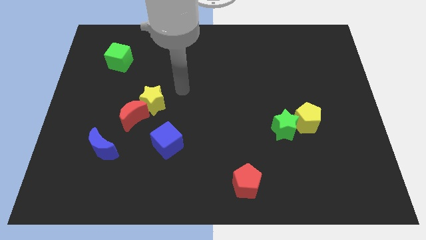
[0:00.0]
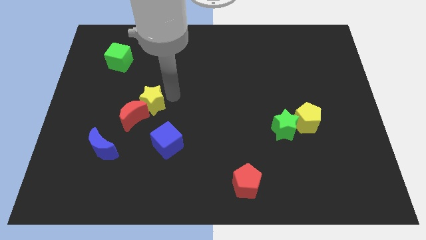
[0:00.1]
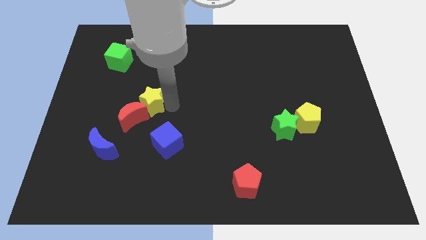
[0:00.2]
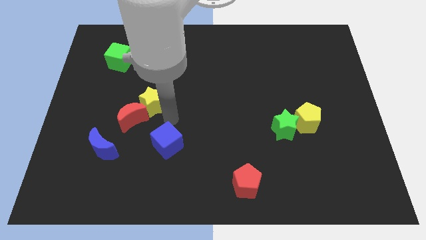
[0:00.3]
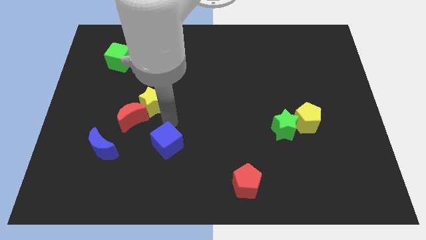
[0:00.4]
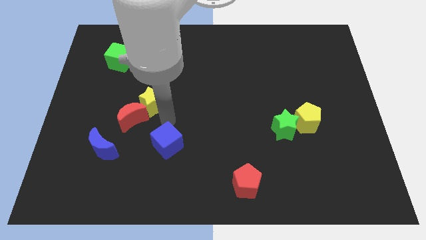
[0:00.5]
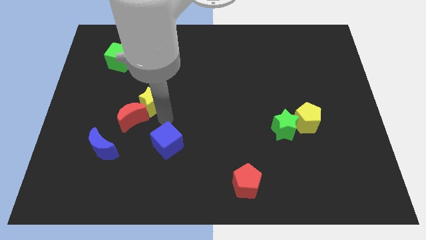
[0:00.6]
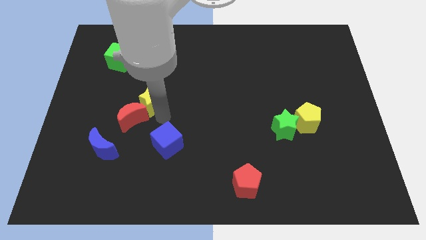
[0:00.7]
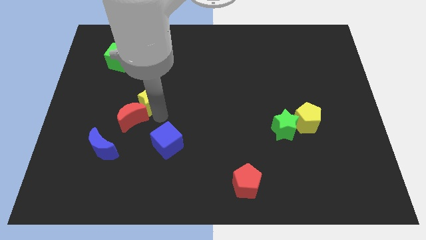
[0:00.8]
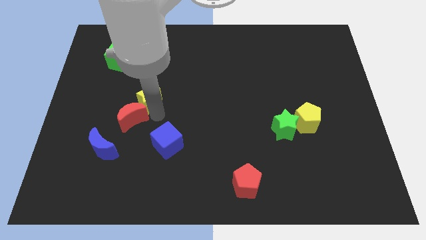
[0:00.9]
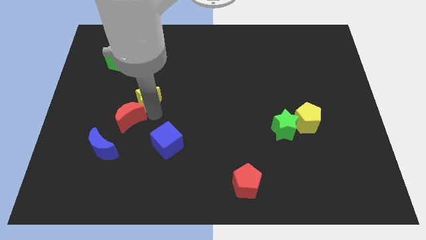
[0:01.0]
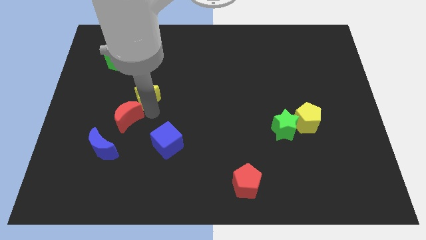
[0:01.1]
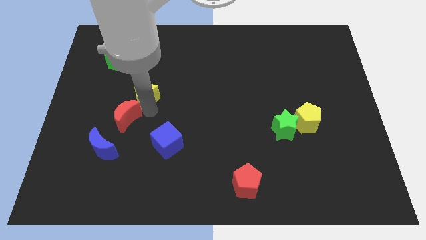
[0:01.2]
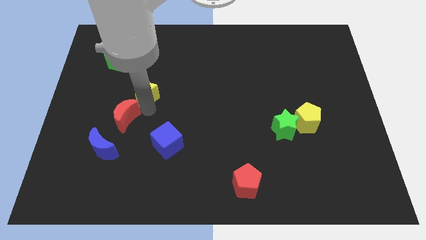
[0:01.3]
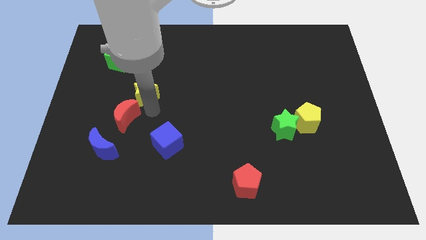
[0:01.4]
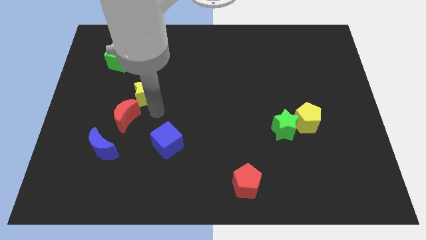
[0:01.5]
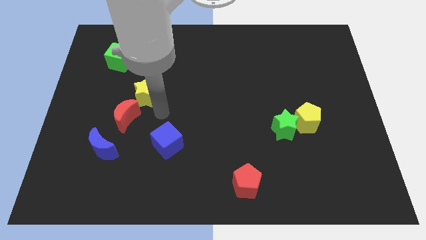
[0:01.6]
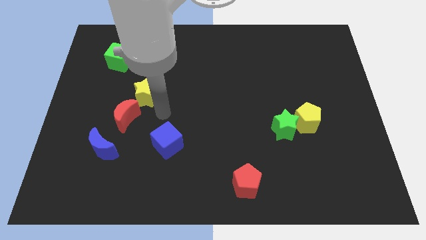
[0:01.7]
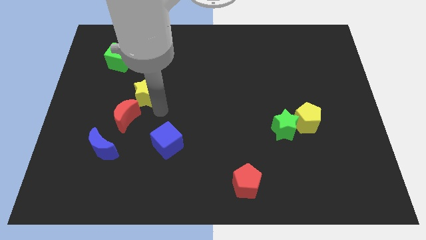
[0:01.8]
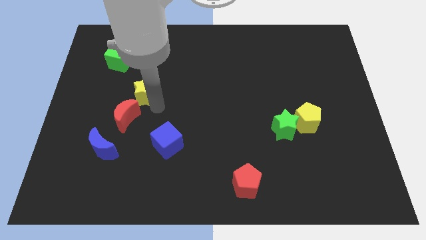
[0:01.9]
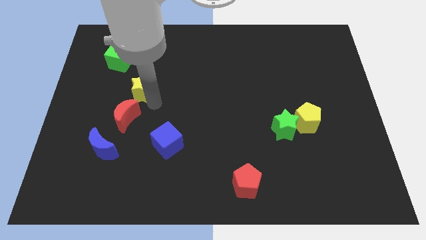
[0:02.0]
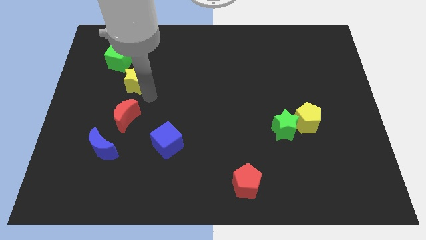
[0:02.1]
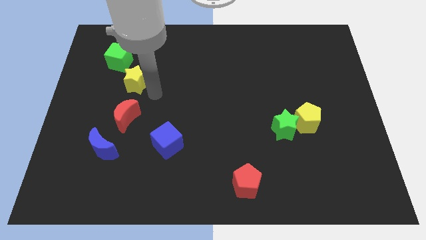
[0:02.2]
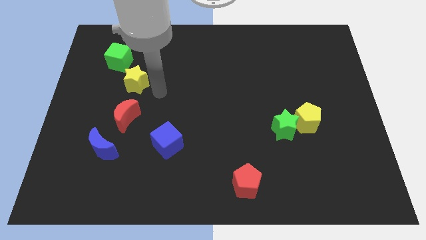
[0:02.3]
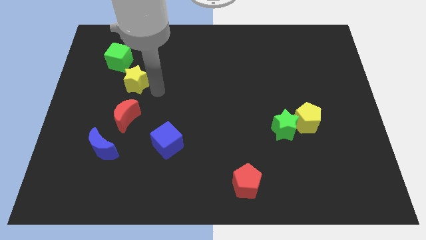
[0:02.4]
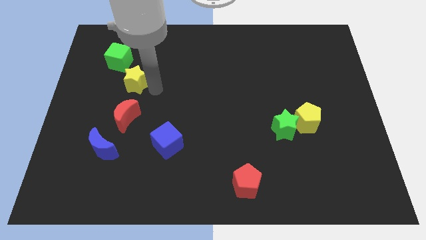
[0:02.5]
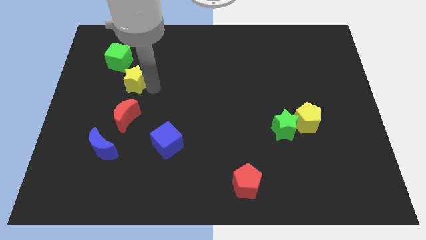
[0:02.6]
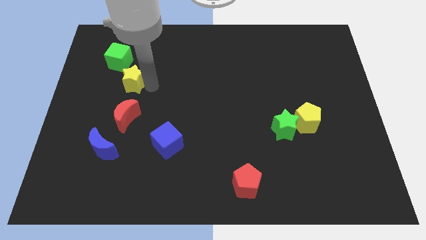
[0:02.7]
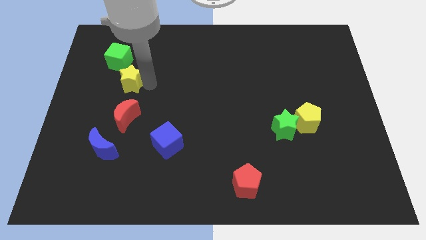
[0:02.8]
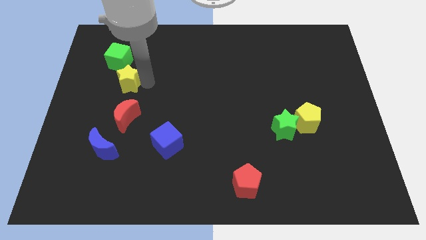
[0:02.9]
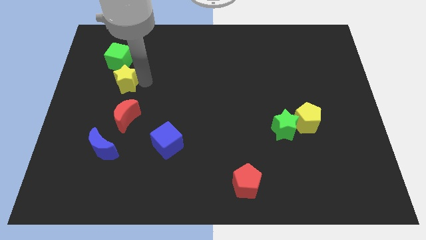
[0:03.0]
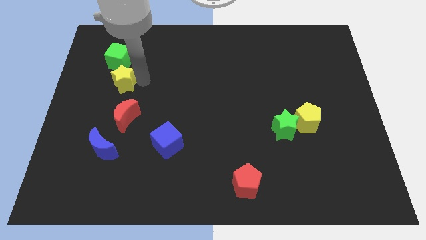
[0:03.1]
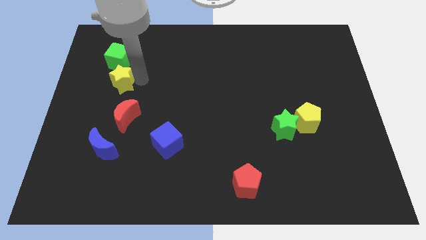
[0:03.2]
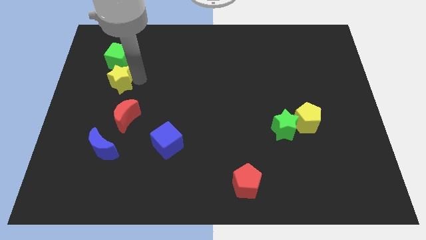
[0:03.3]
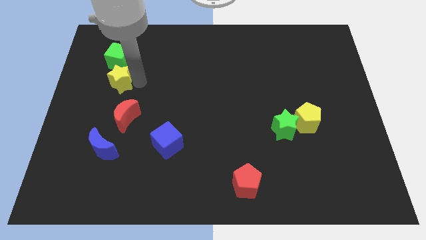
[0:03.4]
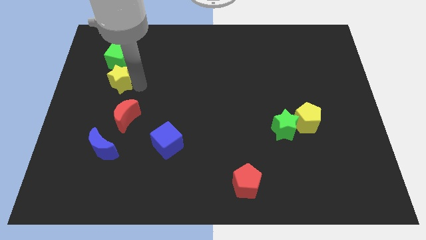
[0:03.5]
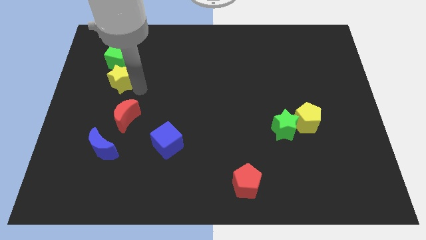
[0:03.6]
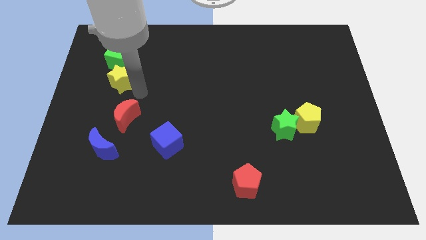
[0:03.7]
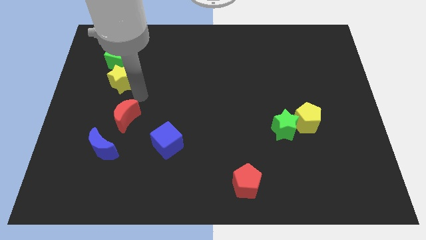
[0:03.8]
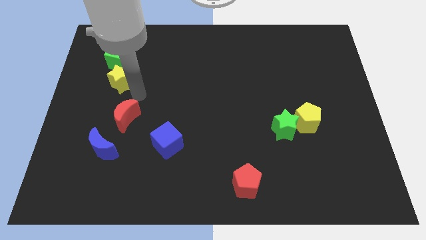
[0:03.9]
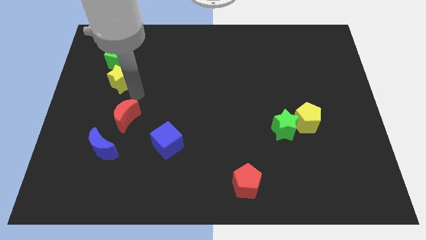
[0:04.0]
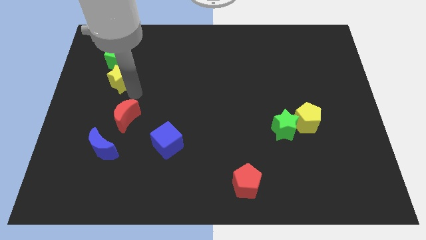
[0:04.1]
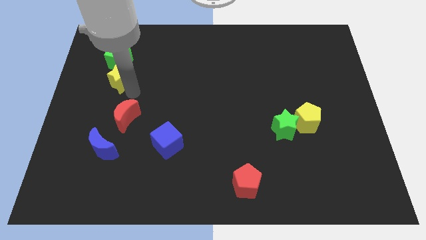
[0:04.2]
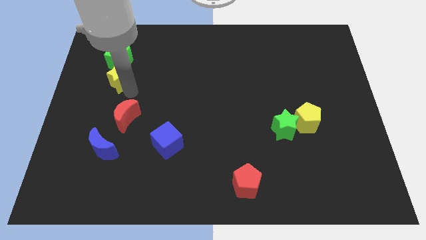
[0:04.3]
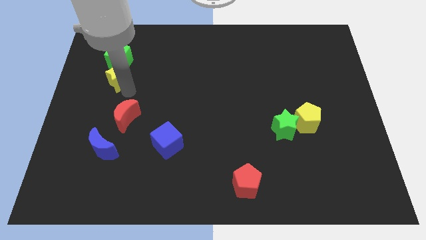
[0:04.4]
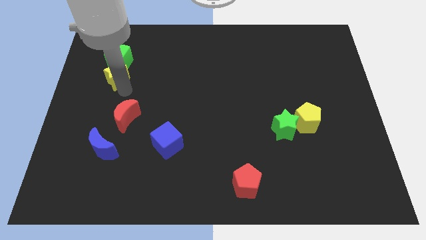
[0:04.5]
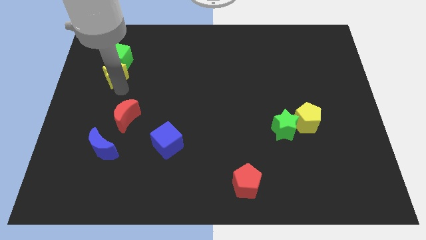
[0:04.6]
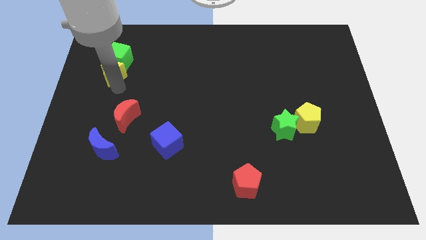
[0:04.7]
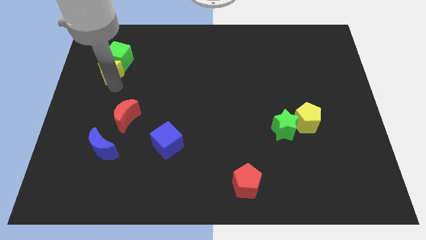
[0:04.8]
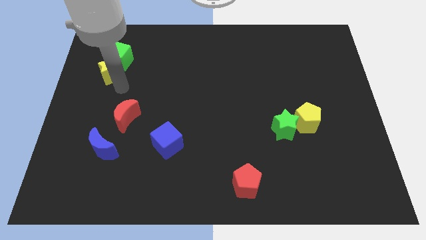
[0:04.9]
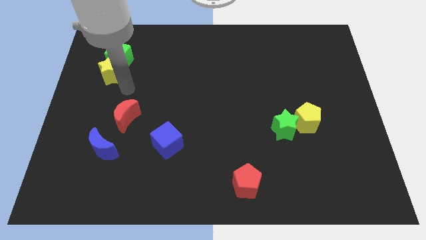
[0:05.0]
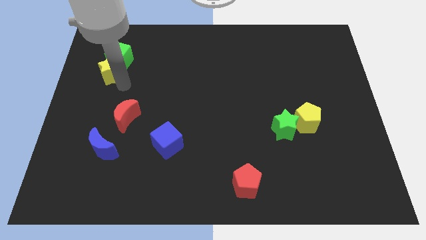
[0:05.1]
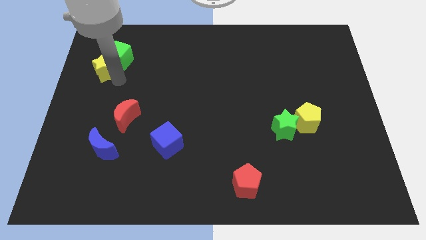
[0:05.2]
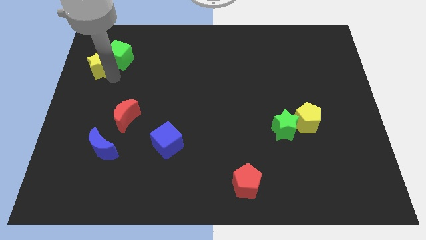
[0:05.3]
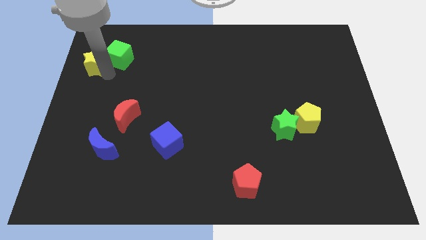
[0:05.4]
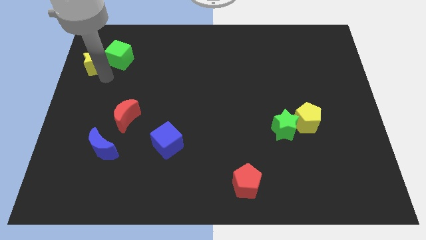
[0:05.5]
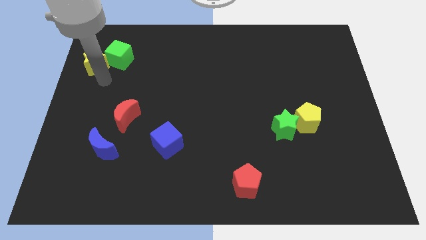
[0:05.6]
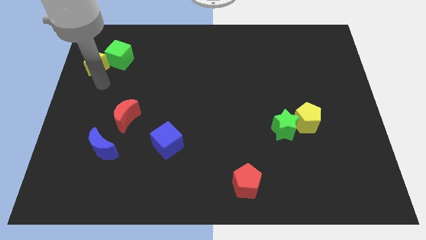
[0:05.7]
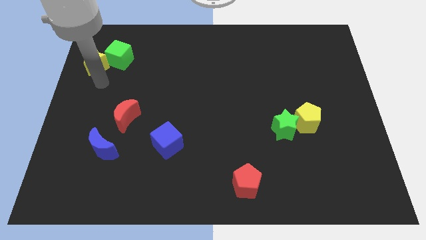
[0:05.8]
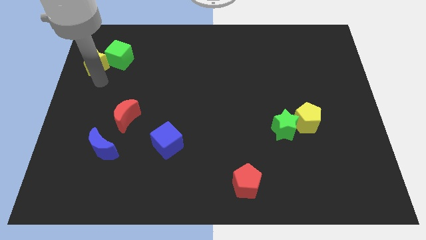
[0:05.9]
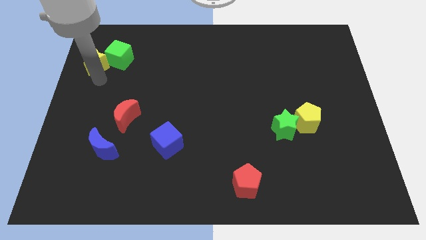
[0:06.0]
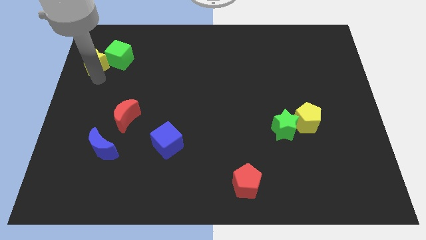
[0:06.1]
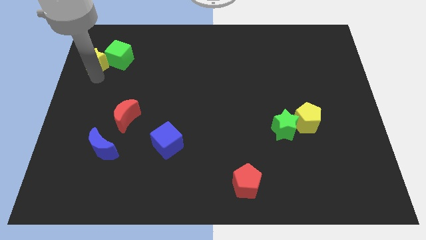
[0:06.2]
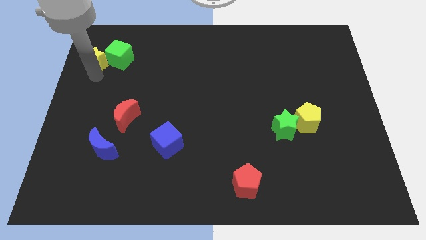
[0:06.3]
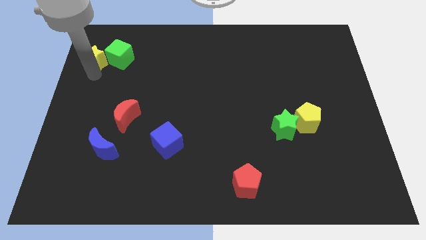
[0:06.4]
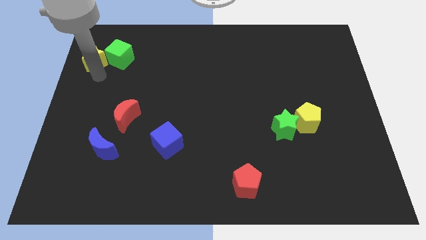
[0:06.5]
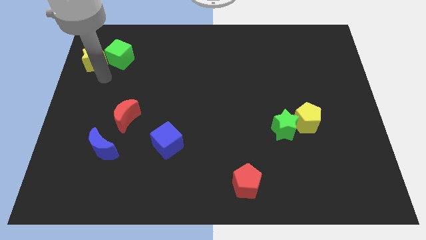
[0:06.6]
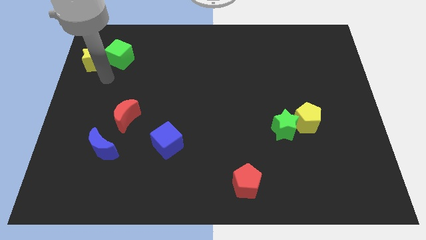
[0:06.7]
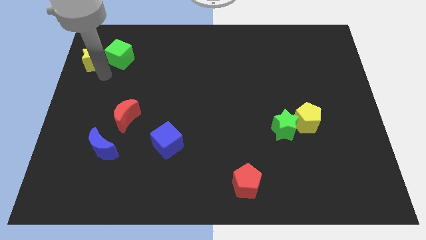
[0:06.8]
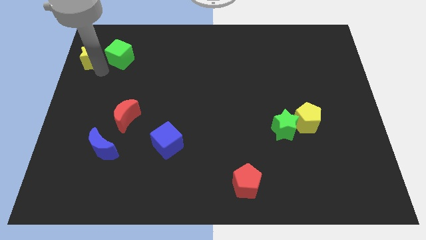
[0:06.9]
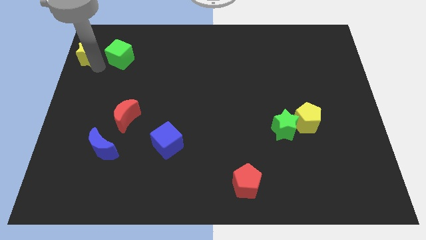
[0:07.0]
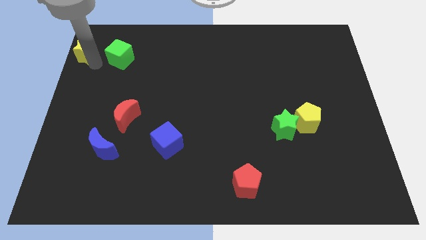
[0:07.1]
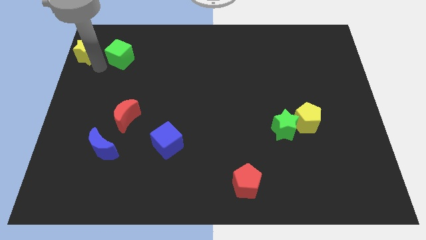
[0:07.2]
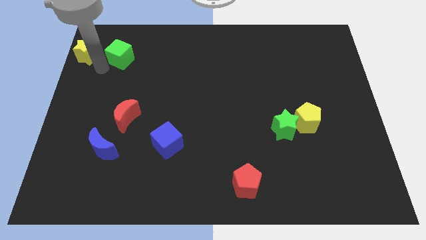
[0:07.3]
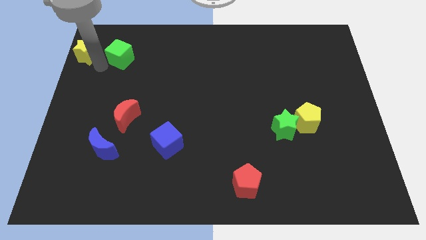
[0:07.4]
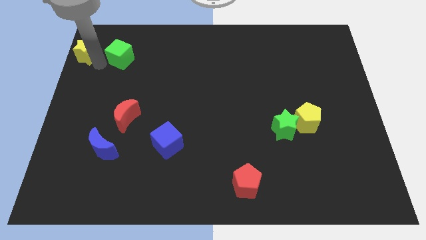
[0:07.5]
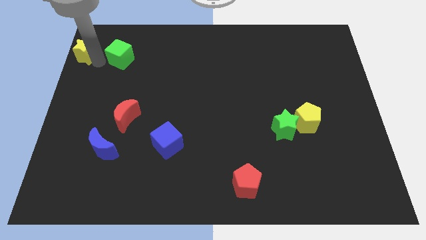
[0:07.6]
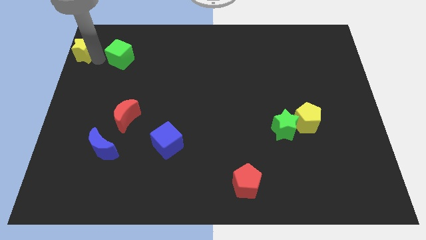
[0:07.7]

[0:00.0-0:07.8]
move the yellow star to the top left corner
